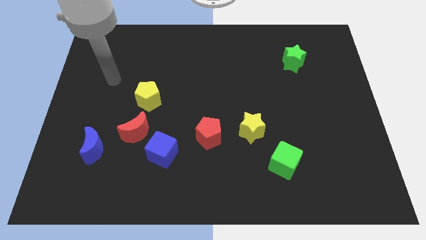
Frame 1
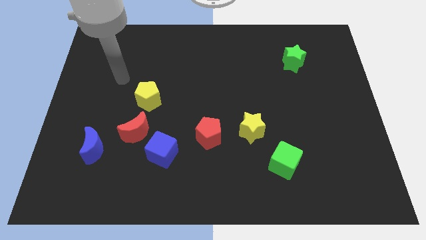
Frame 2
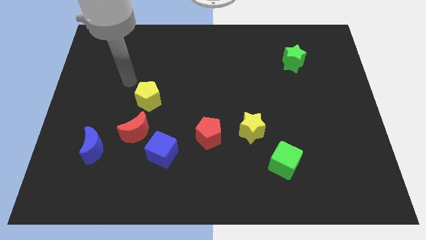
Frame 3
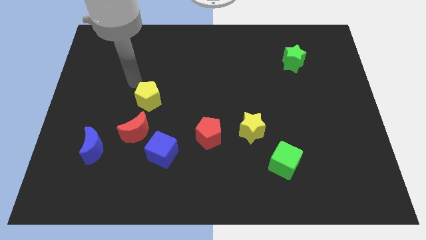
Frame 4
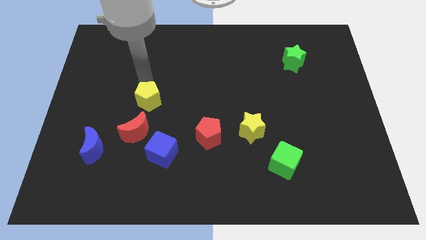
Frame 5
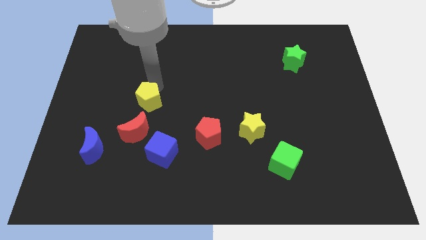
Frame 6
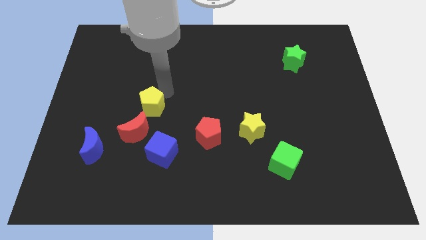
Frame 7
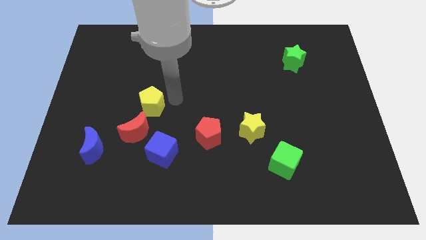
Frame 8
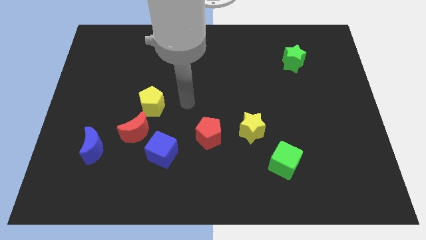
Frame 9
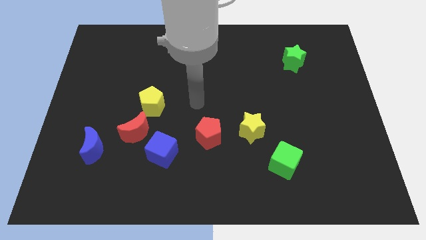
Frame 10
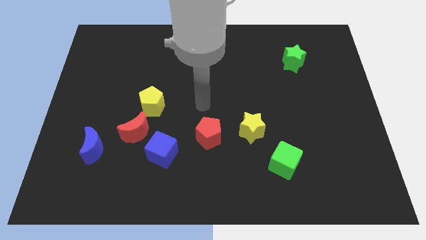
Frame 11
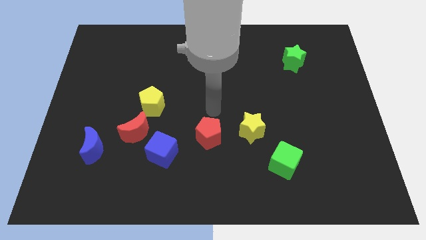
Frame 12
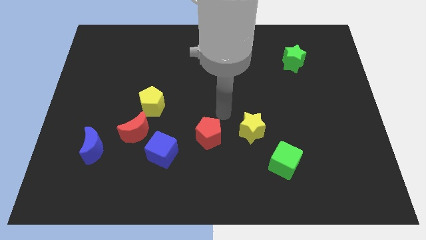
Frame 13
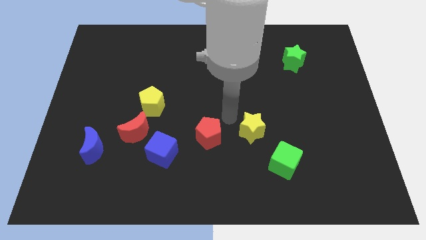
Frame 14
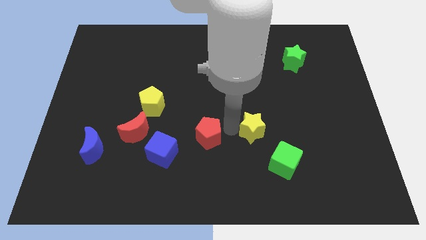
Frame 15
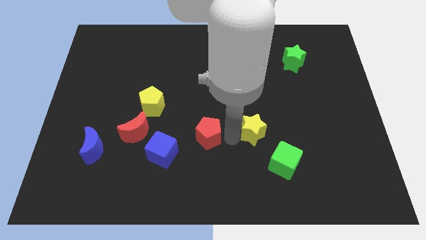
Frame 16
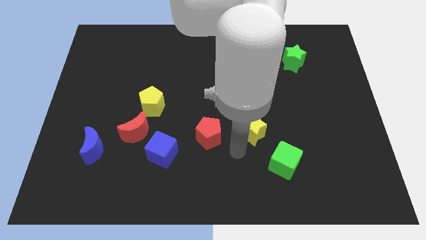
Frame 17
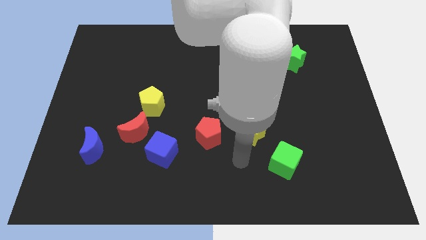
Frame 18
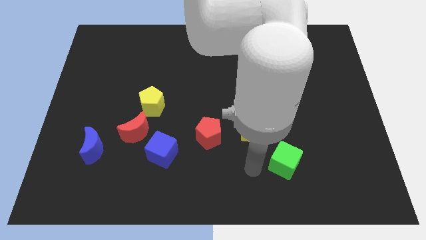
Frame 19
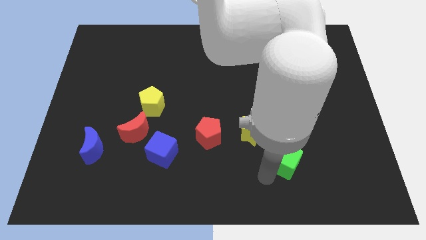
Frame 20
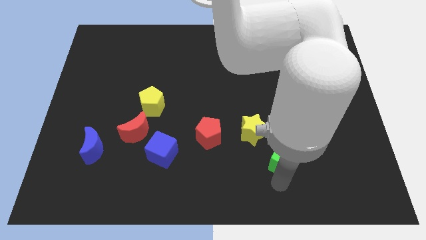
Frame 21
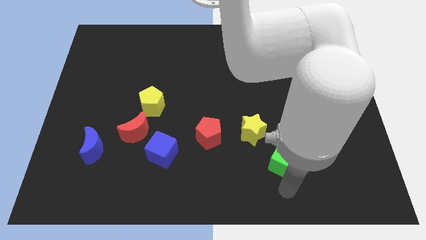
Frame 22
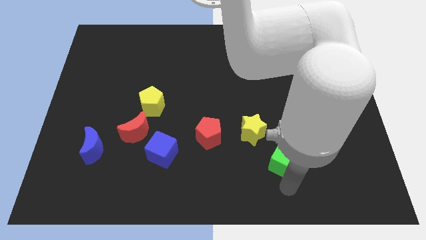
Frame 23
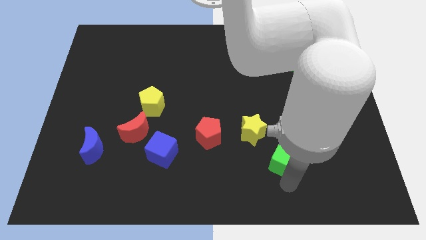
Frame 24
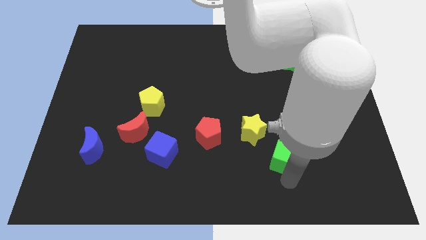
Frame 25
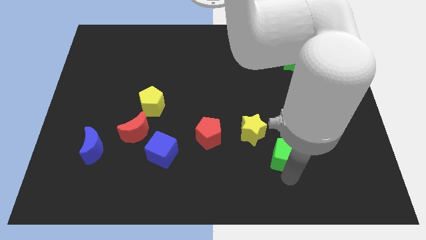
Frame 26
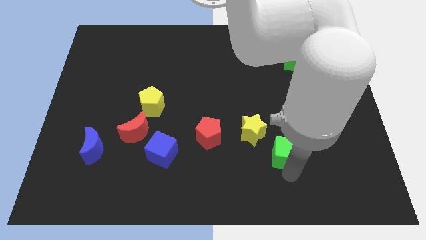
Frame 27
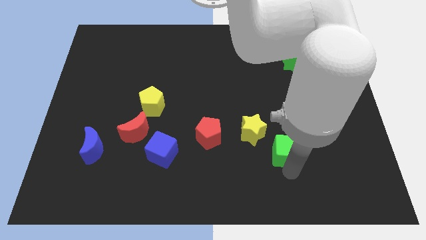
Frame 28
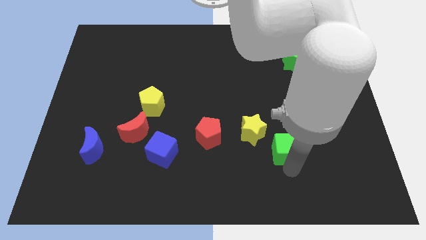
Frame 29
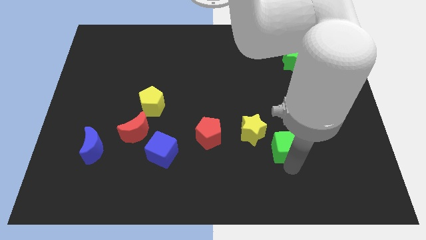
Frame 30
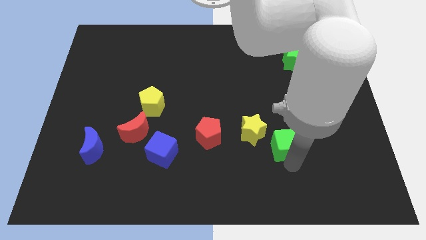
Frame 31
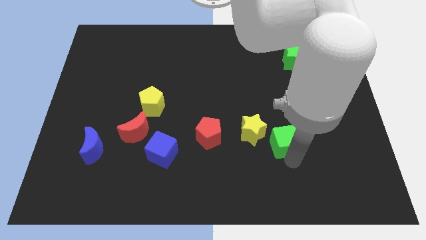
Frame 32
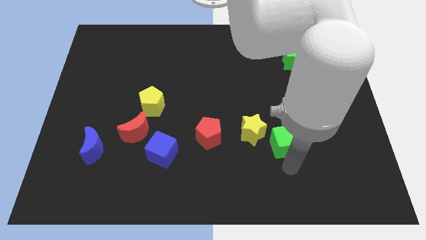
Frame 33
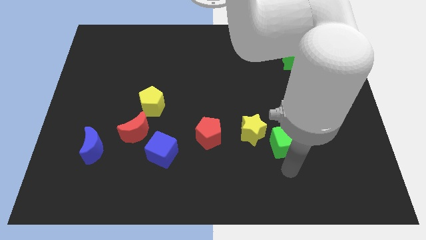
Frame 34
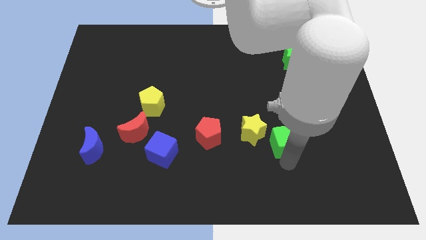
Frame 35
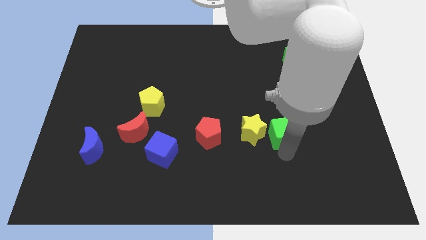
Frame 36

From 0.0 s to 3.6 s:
slightly move the green cube upwards

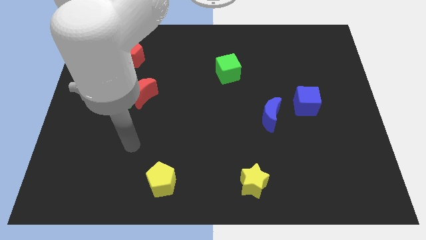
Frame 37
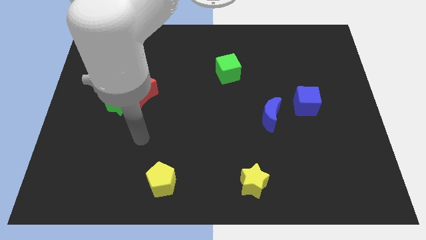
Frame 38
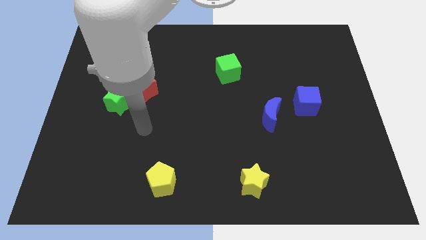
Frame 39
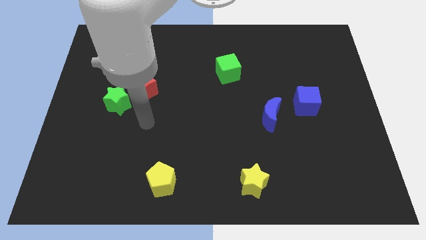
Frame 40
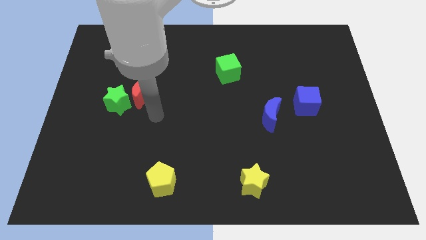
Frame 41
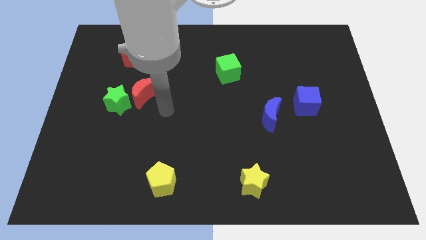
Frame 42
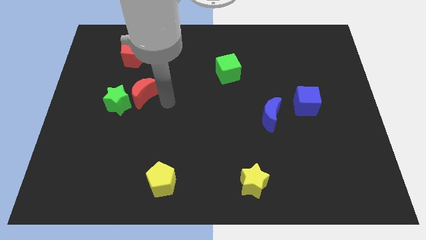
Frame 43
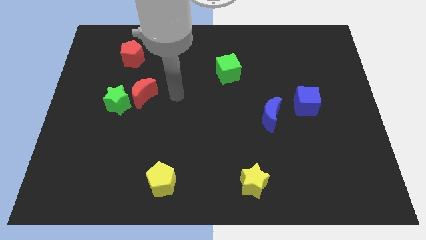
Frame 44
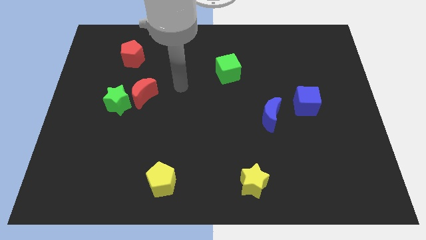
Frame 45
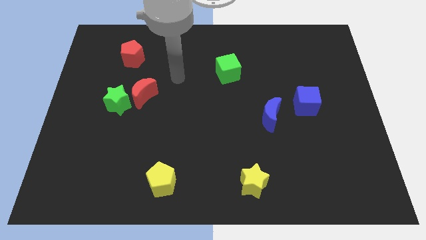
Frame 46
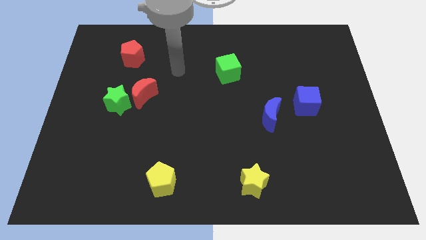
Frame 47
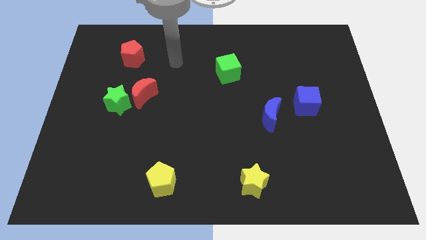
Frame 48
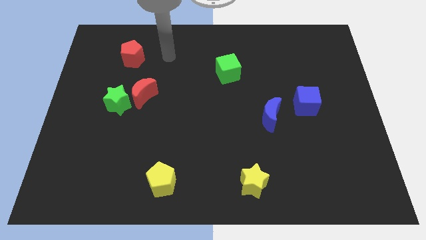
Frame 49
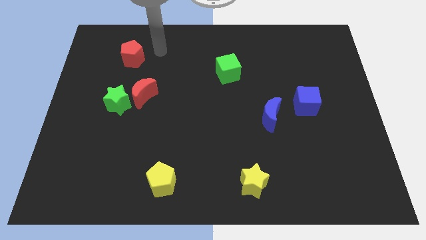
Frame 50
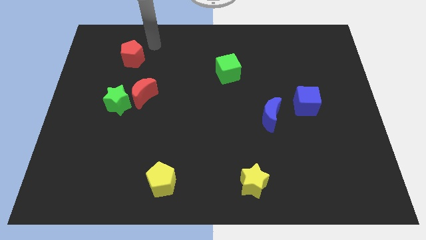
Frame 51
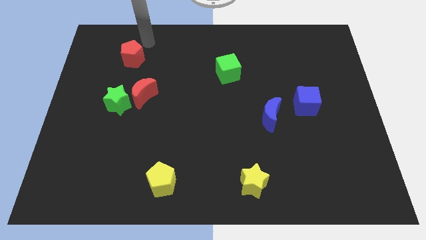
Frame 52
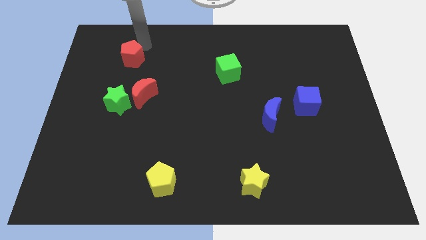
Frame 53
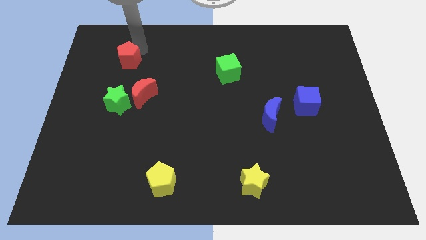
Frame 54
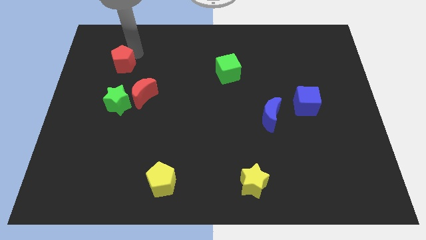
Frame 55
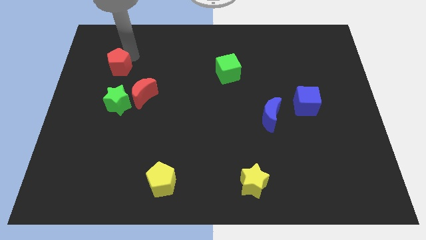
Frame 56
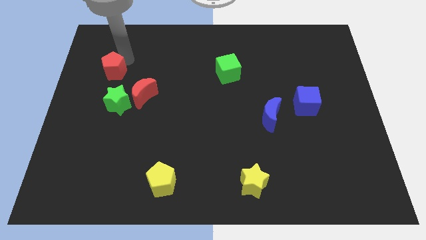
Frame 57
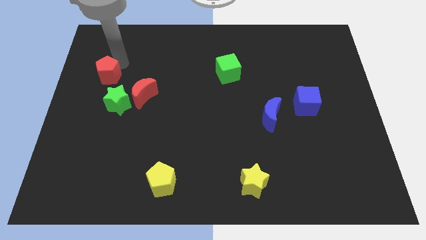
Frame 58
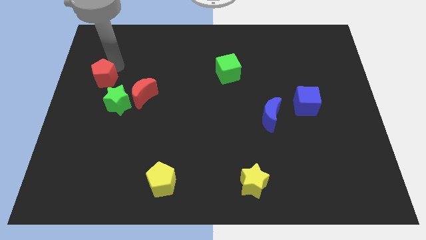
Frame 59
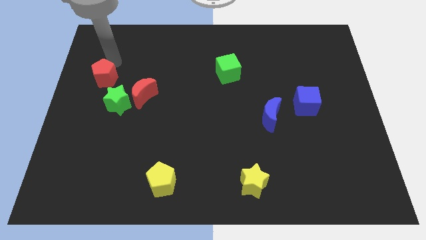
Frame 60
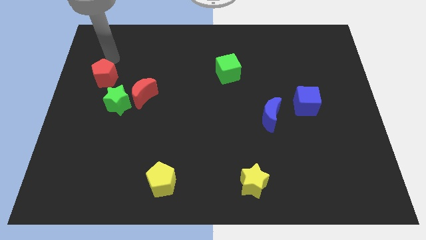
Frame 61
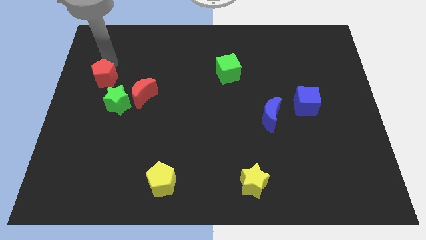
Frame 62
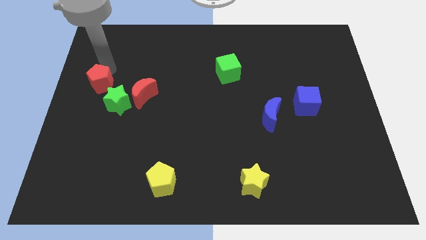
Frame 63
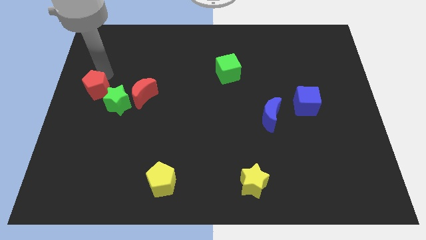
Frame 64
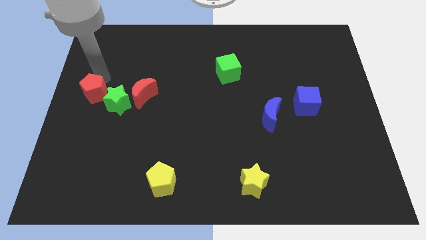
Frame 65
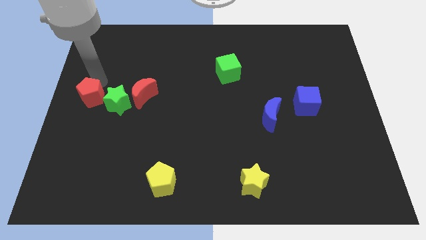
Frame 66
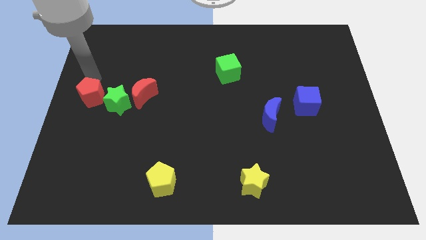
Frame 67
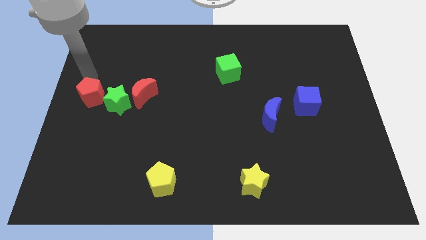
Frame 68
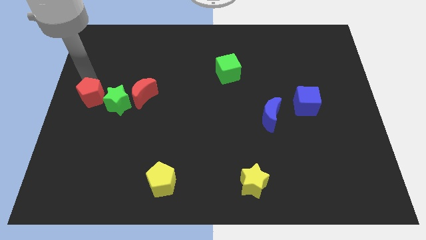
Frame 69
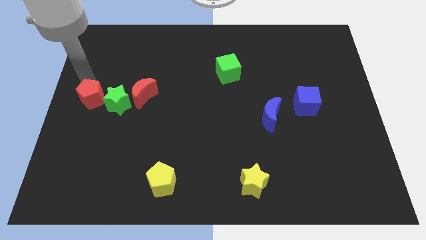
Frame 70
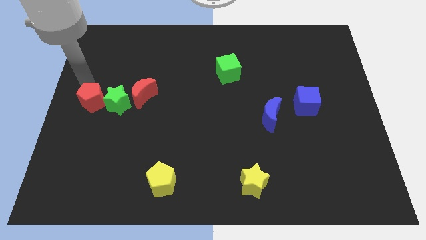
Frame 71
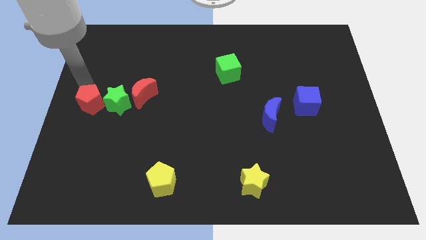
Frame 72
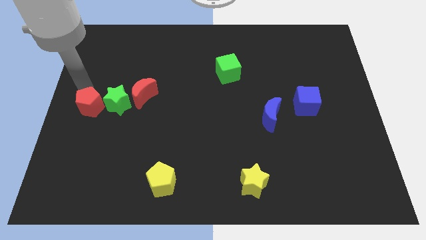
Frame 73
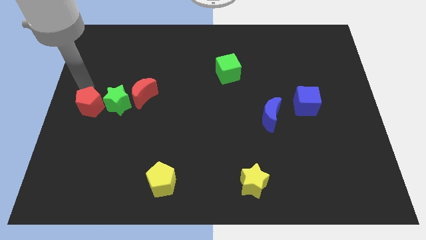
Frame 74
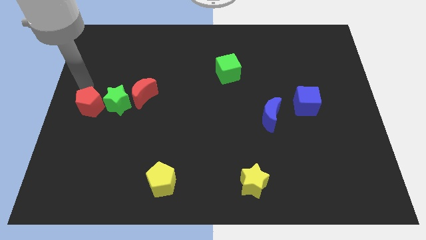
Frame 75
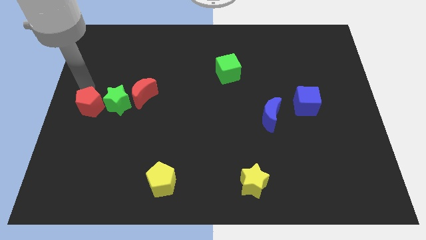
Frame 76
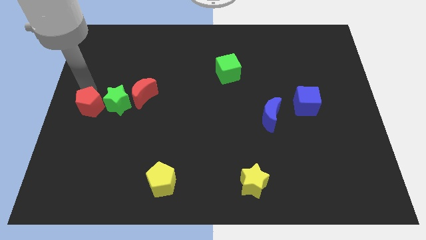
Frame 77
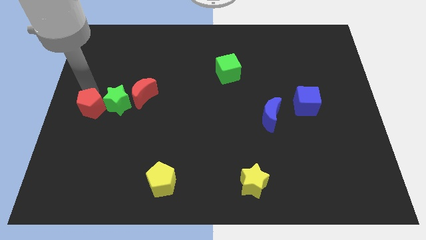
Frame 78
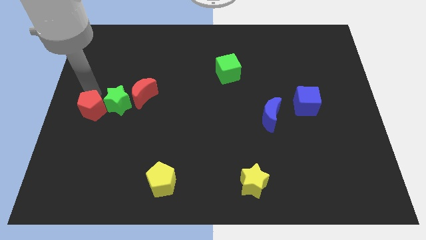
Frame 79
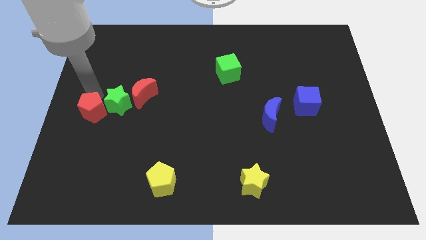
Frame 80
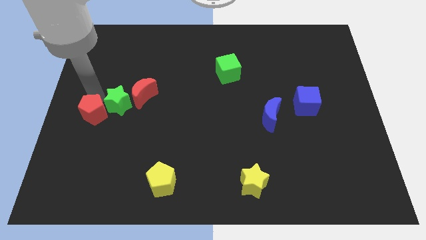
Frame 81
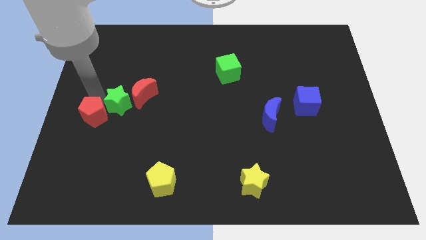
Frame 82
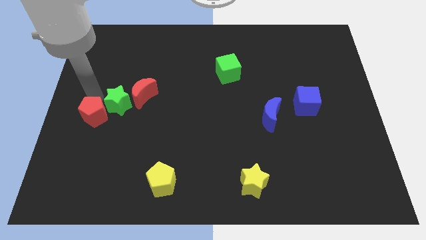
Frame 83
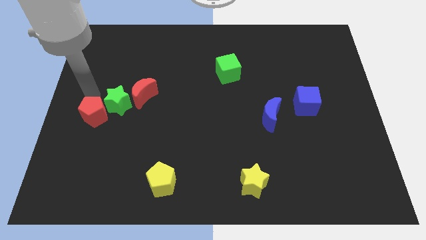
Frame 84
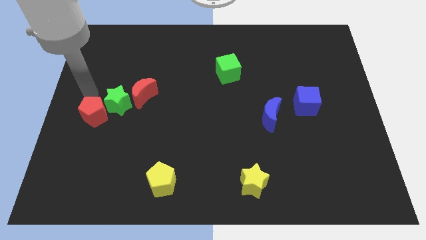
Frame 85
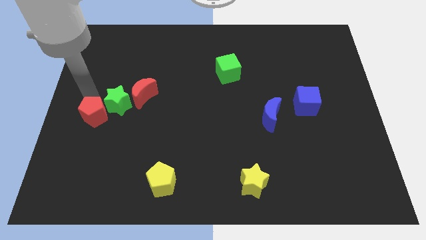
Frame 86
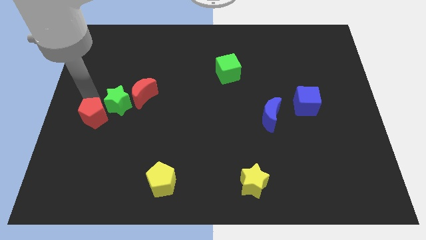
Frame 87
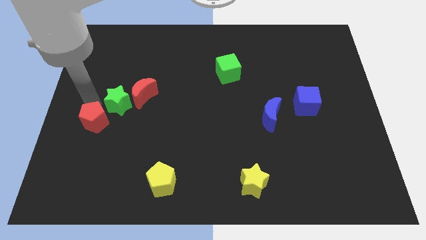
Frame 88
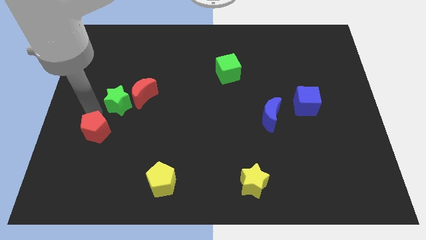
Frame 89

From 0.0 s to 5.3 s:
move the red pentagon down
